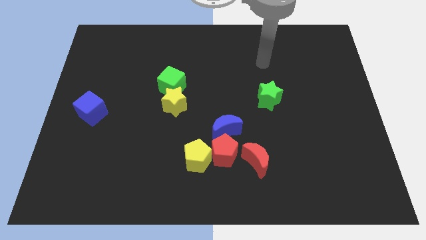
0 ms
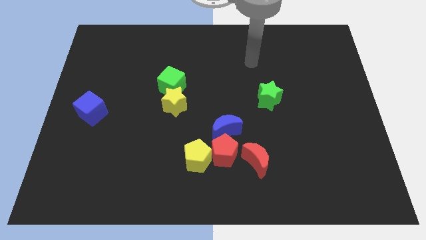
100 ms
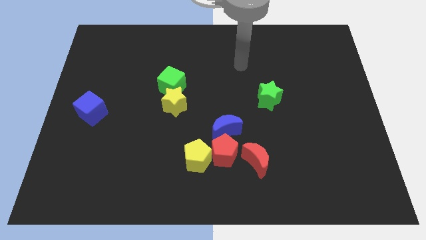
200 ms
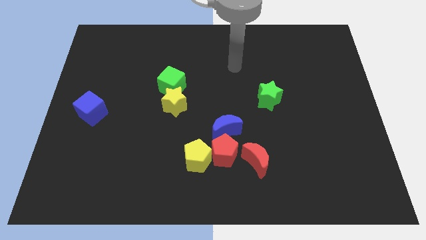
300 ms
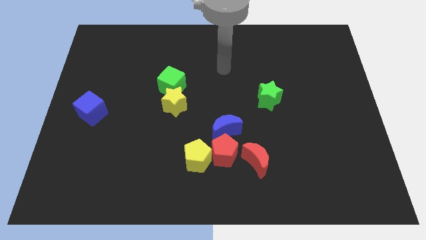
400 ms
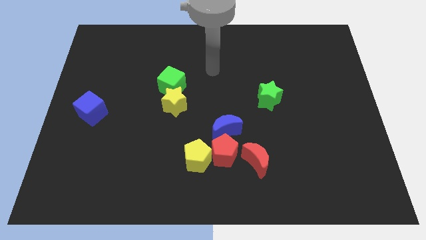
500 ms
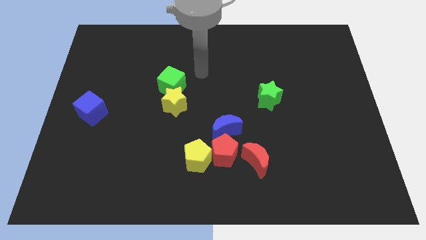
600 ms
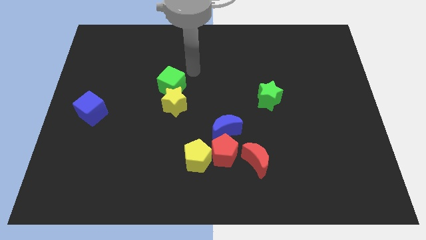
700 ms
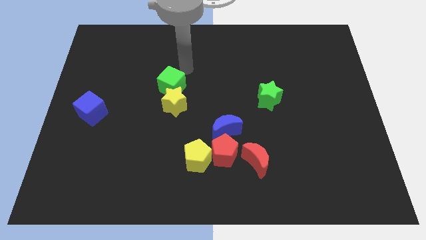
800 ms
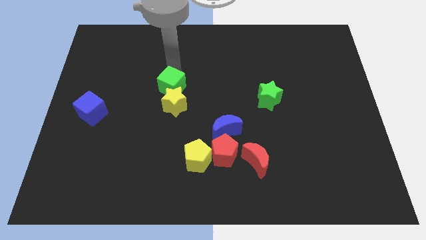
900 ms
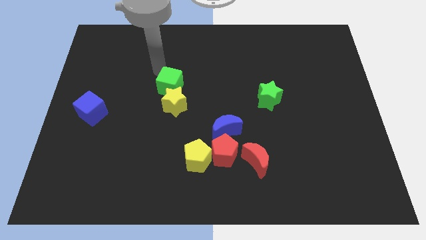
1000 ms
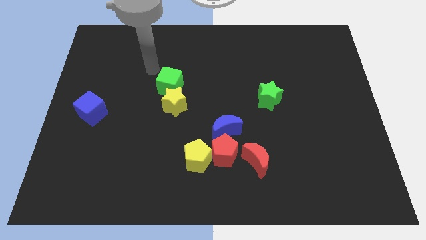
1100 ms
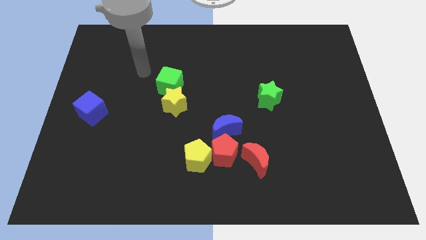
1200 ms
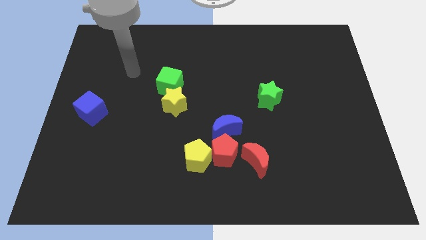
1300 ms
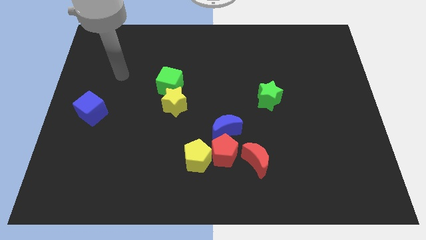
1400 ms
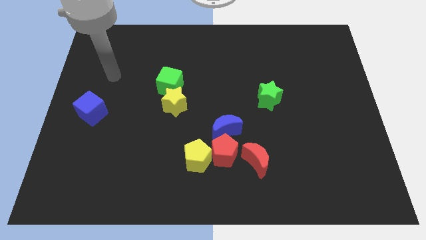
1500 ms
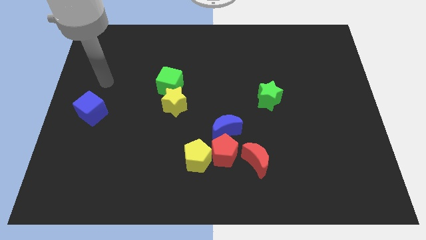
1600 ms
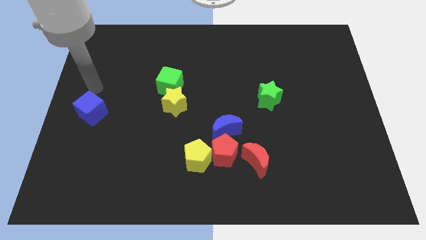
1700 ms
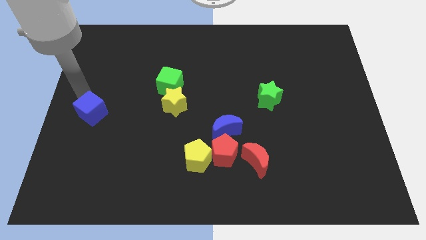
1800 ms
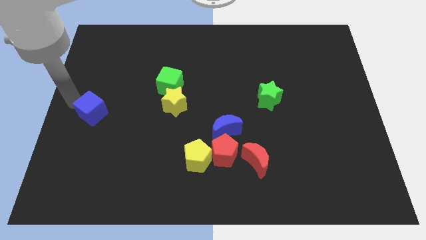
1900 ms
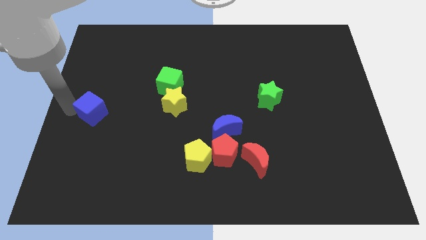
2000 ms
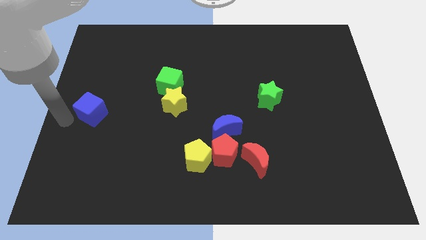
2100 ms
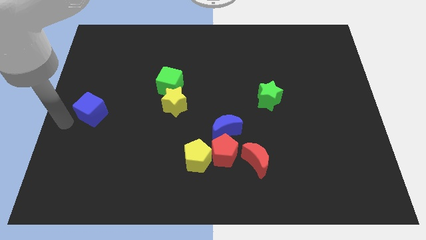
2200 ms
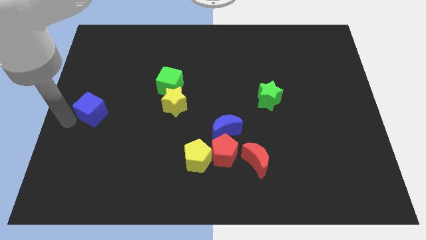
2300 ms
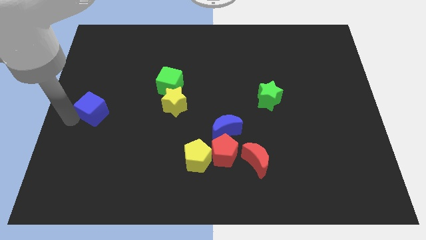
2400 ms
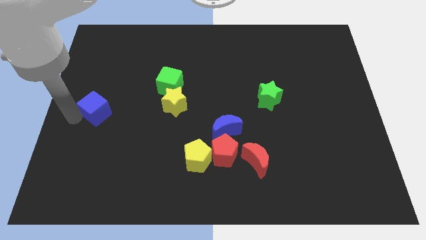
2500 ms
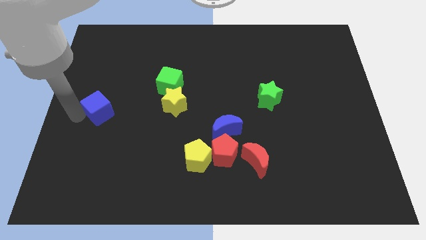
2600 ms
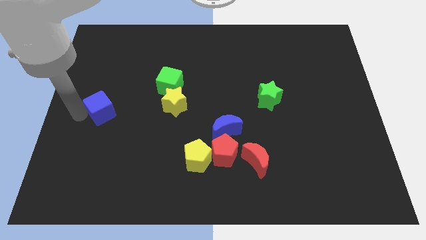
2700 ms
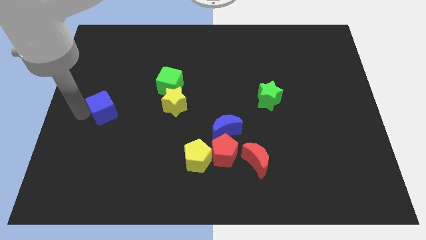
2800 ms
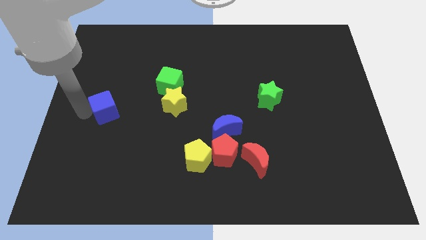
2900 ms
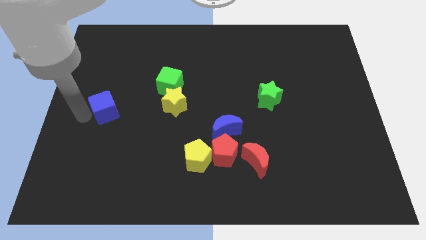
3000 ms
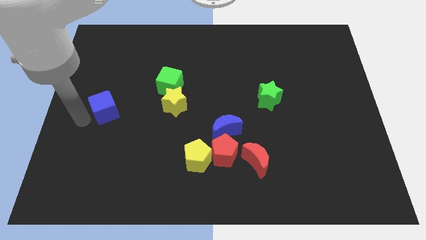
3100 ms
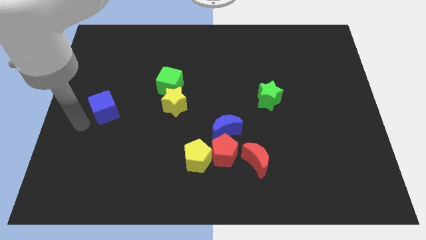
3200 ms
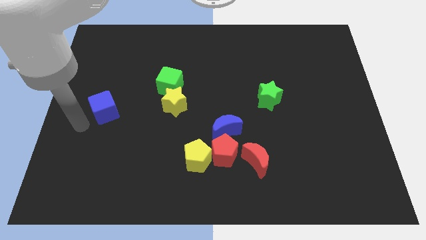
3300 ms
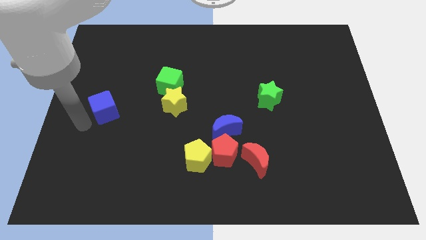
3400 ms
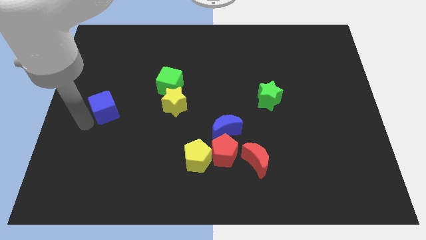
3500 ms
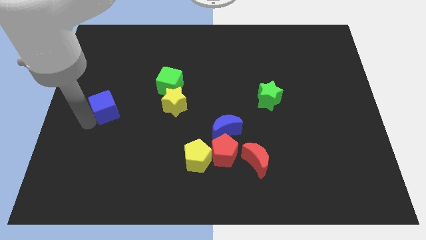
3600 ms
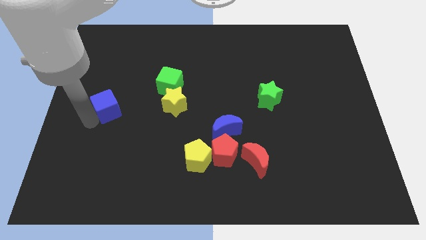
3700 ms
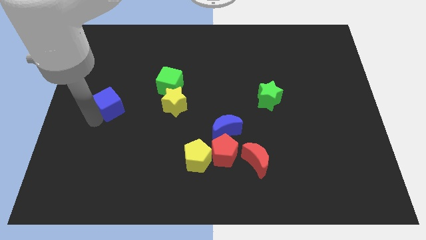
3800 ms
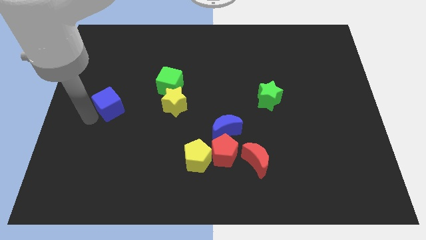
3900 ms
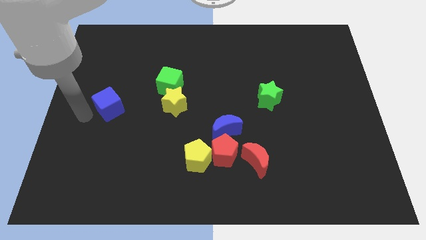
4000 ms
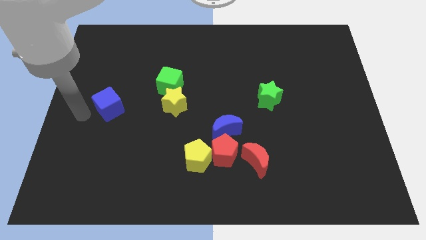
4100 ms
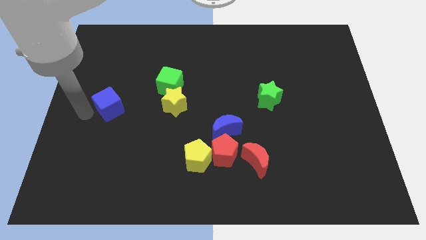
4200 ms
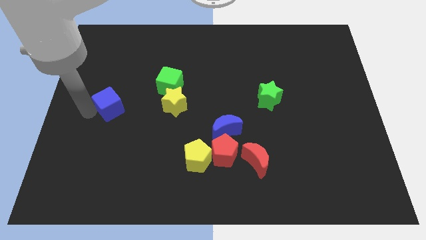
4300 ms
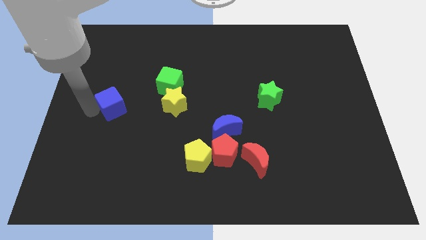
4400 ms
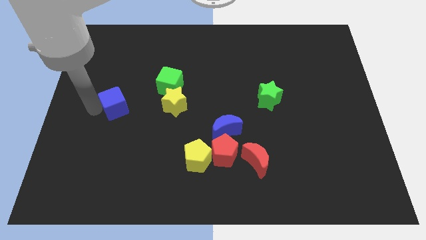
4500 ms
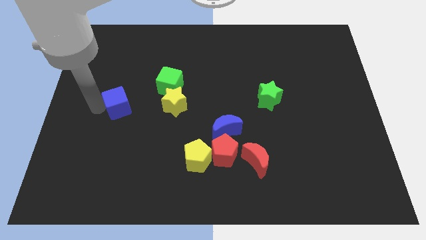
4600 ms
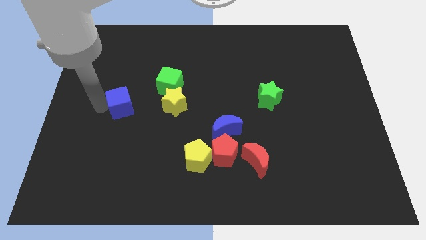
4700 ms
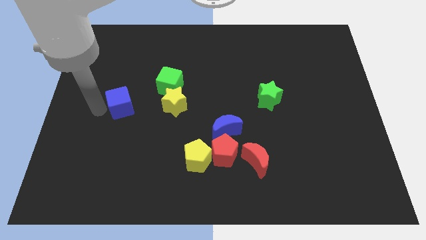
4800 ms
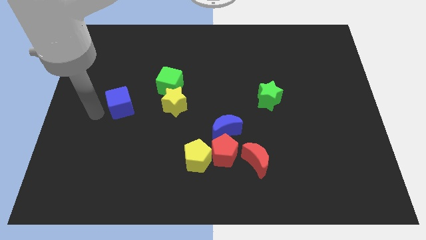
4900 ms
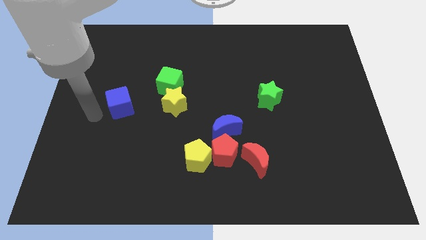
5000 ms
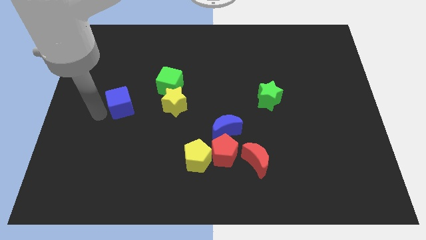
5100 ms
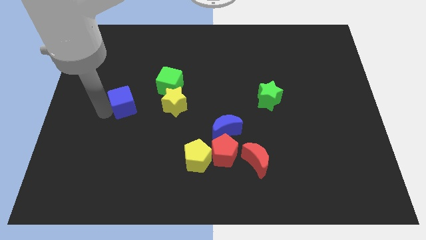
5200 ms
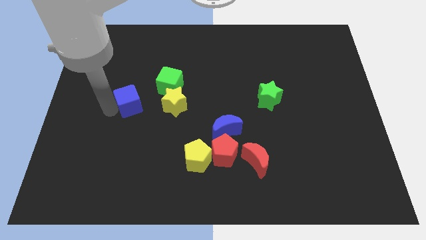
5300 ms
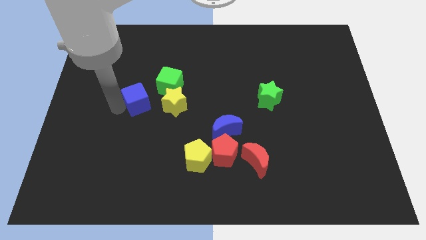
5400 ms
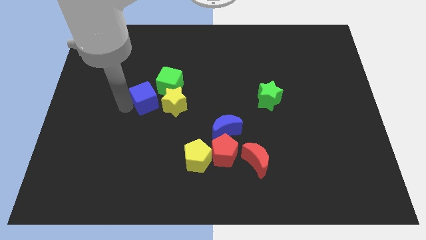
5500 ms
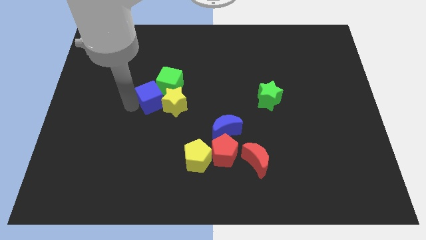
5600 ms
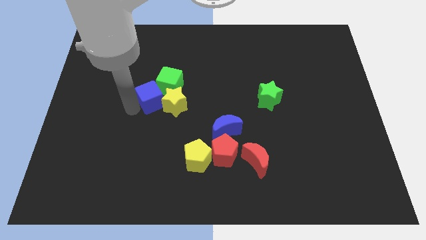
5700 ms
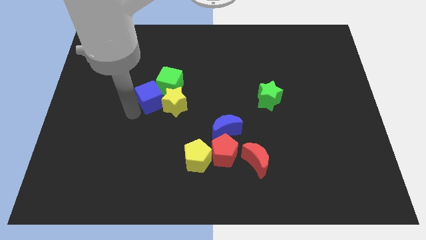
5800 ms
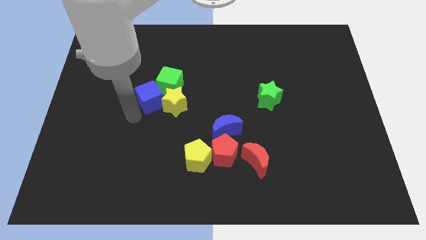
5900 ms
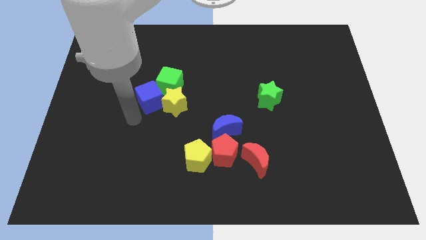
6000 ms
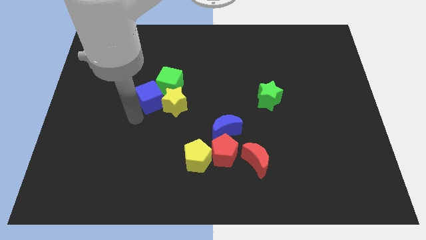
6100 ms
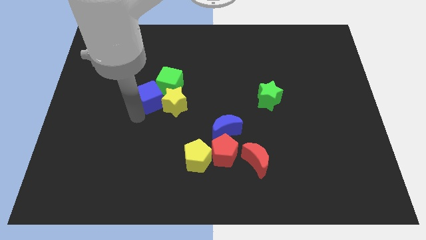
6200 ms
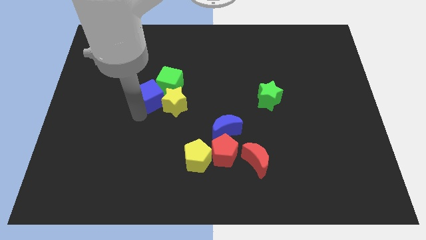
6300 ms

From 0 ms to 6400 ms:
slide the blue cube next to the green cube

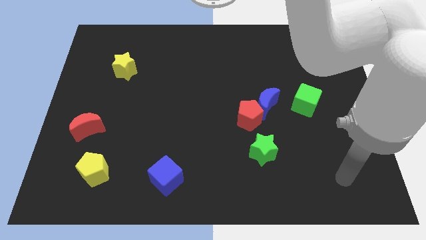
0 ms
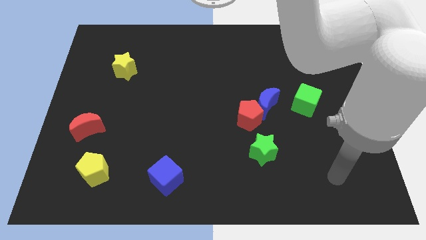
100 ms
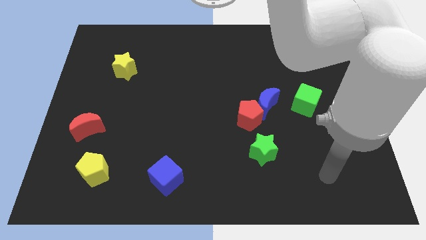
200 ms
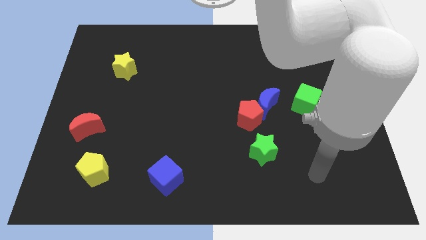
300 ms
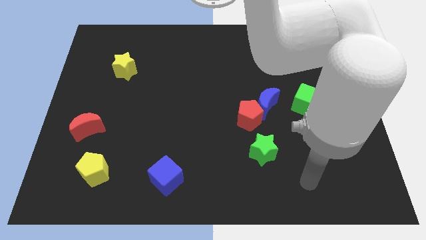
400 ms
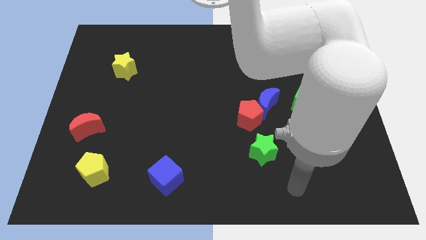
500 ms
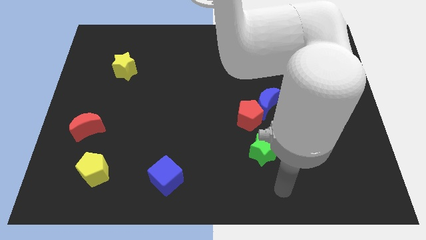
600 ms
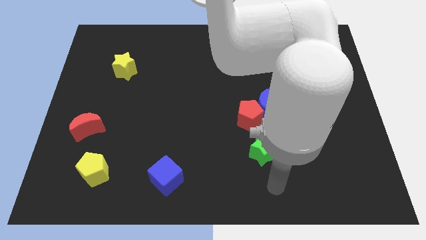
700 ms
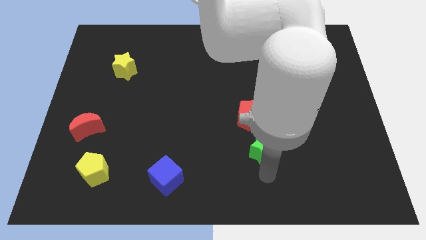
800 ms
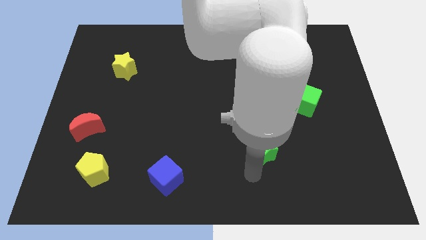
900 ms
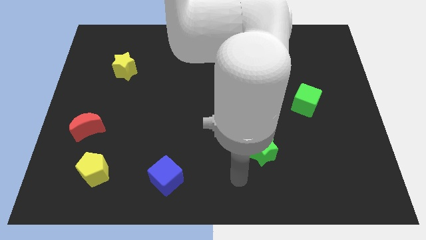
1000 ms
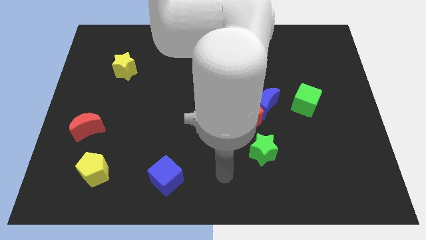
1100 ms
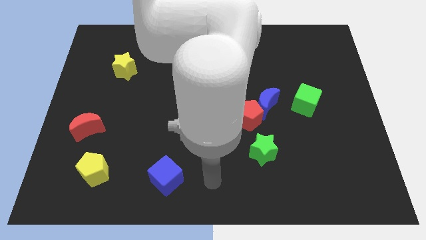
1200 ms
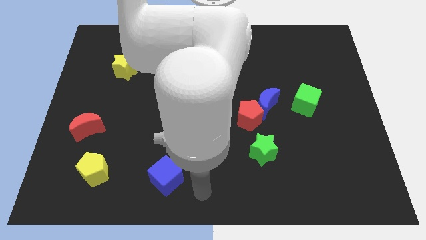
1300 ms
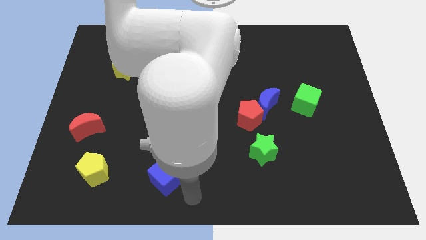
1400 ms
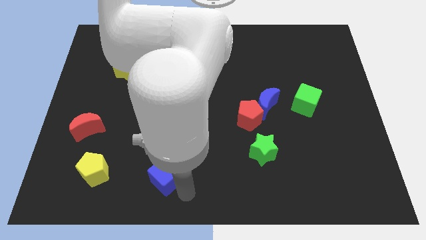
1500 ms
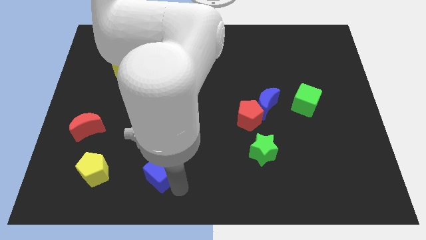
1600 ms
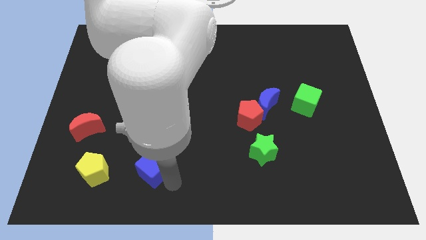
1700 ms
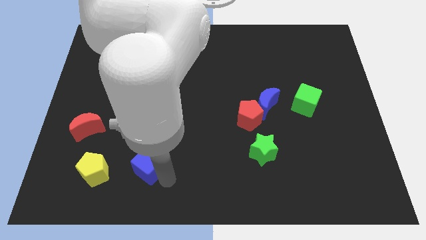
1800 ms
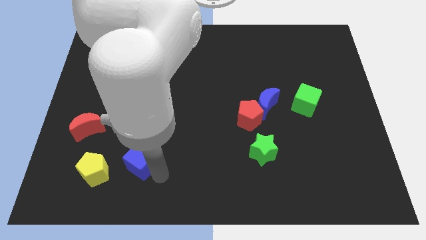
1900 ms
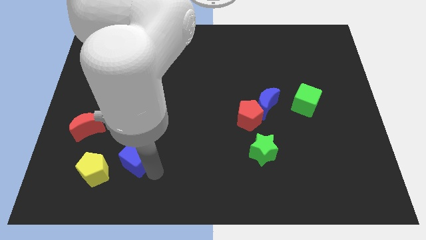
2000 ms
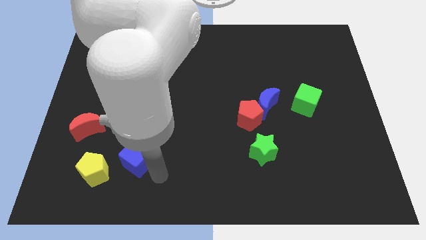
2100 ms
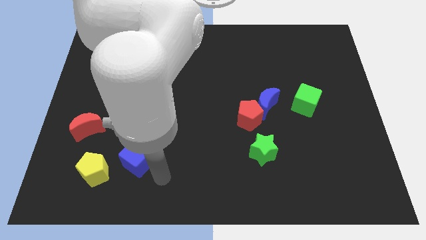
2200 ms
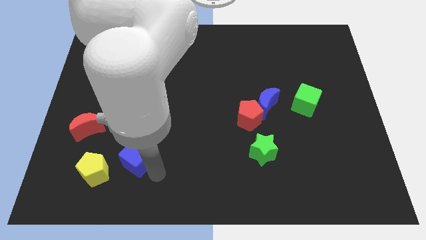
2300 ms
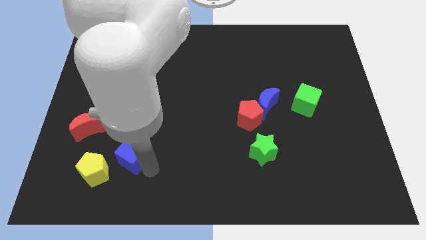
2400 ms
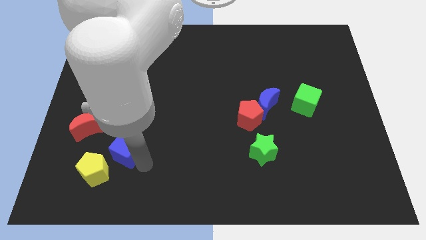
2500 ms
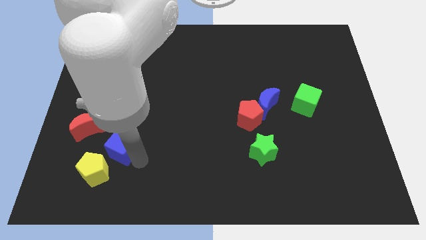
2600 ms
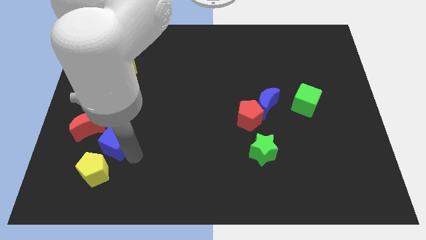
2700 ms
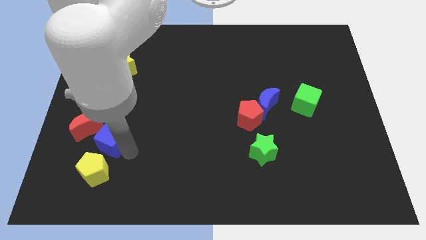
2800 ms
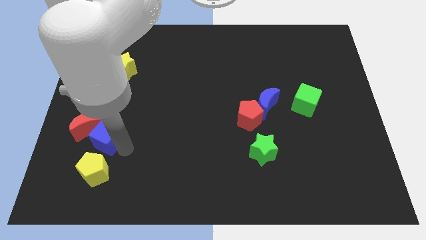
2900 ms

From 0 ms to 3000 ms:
slide the blue cube next to the red moon
